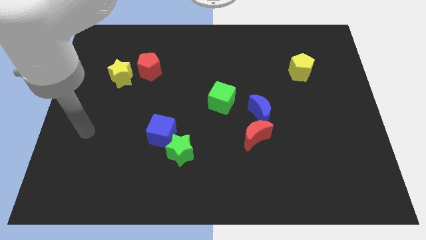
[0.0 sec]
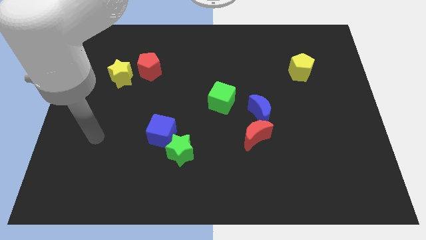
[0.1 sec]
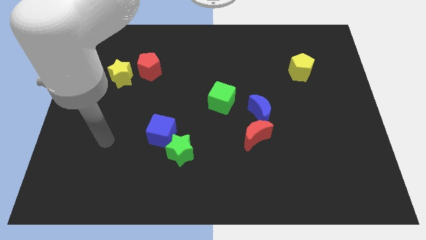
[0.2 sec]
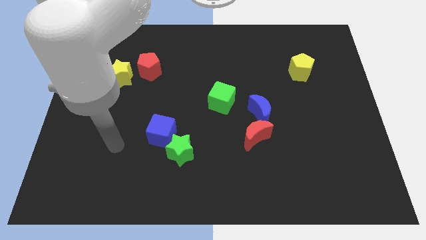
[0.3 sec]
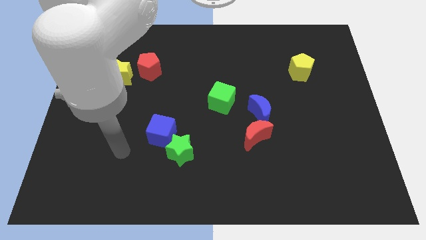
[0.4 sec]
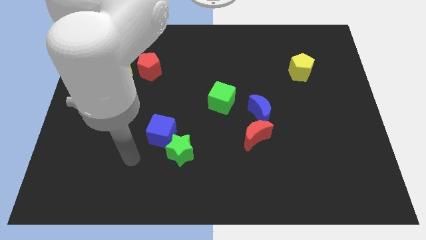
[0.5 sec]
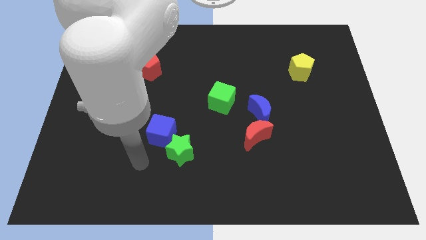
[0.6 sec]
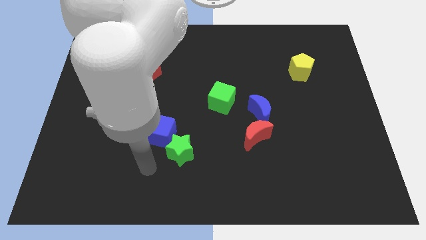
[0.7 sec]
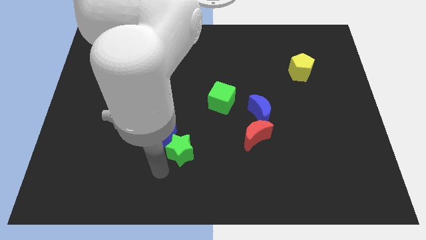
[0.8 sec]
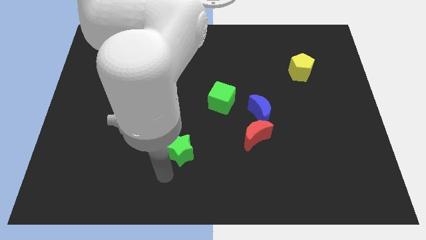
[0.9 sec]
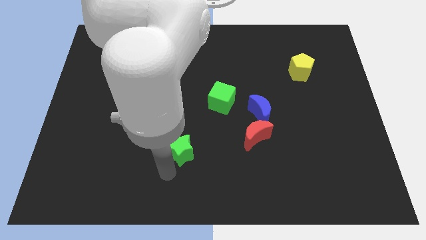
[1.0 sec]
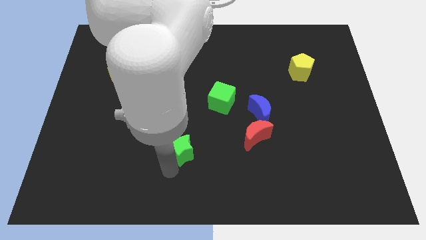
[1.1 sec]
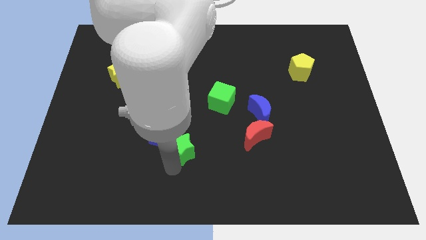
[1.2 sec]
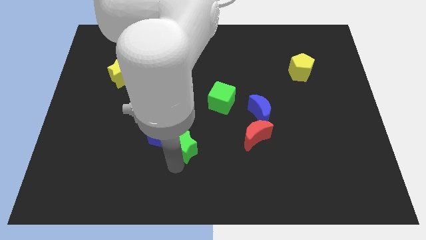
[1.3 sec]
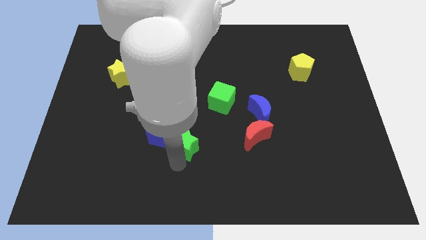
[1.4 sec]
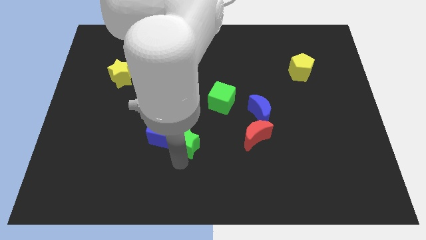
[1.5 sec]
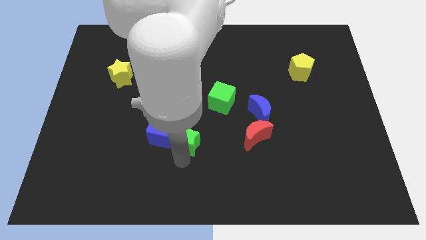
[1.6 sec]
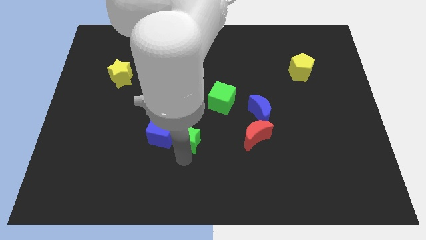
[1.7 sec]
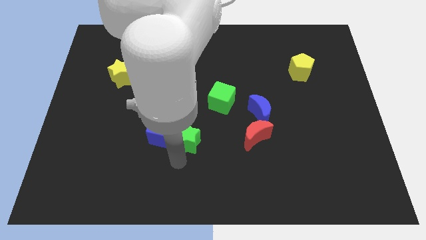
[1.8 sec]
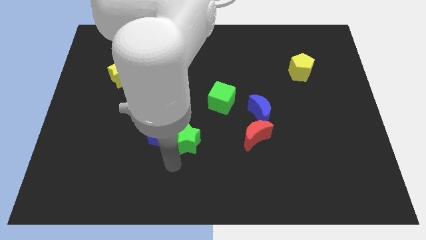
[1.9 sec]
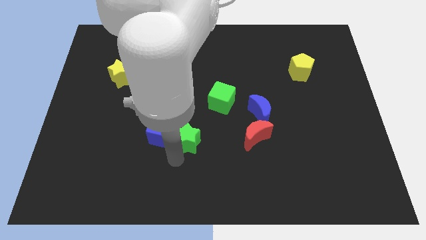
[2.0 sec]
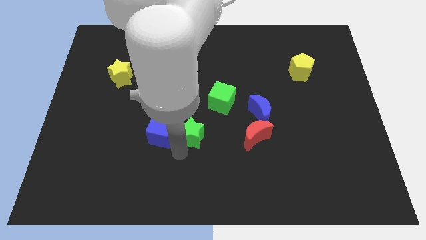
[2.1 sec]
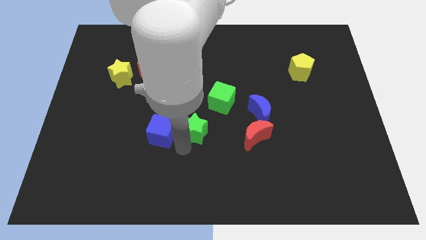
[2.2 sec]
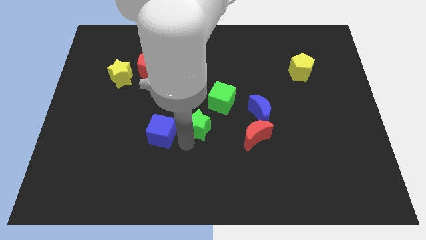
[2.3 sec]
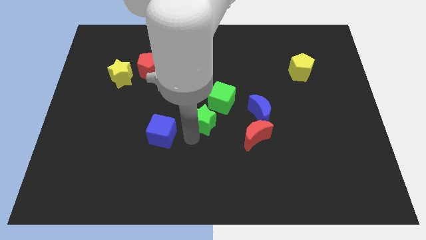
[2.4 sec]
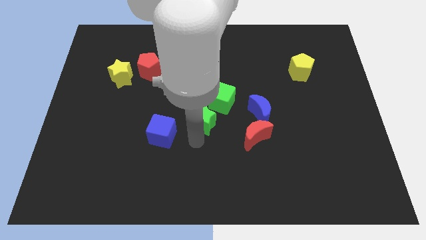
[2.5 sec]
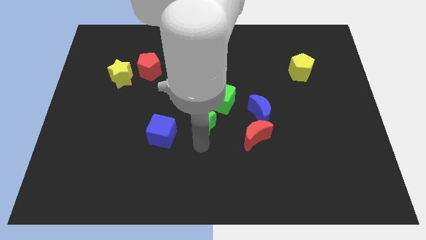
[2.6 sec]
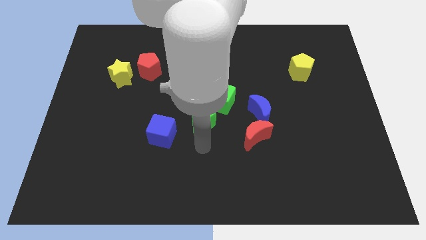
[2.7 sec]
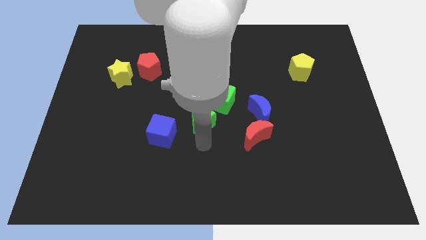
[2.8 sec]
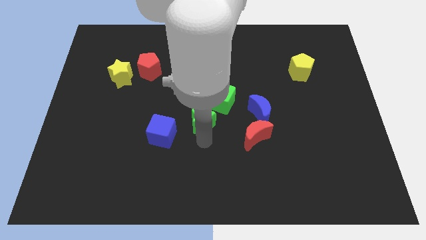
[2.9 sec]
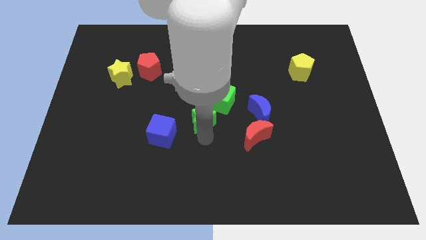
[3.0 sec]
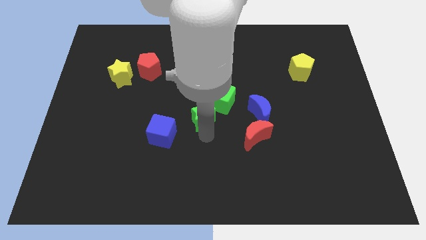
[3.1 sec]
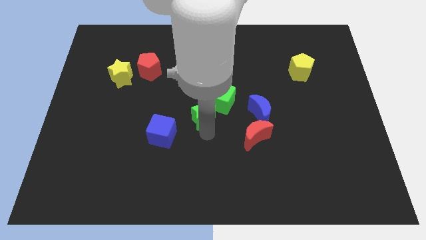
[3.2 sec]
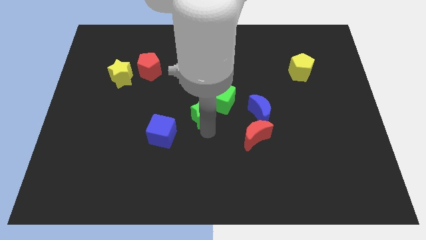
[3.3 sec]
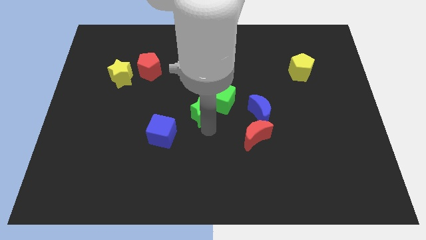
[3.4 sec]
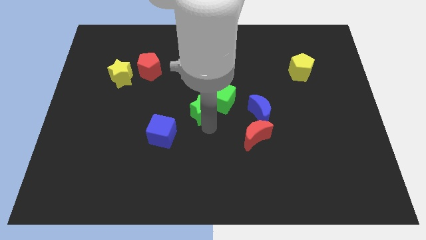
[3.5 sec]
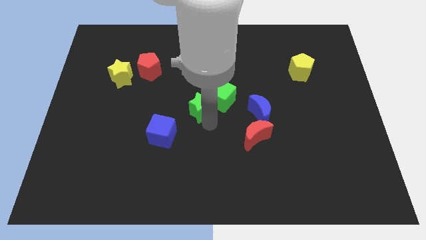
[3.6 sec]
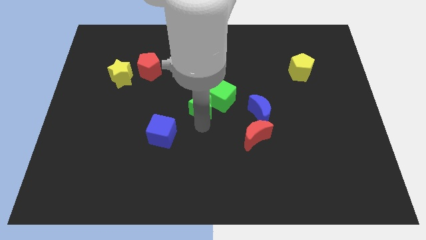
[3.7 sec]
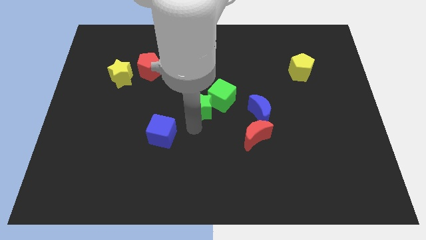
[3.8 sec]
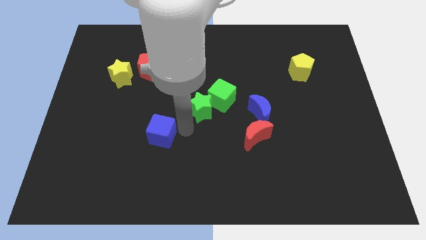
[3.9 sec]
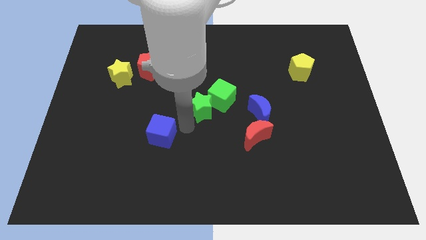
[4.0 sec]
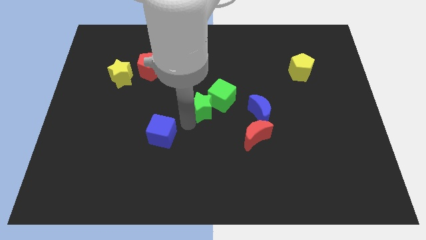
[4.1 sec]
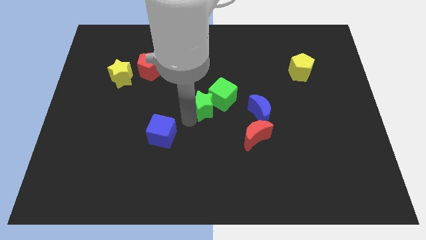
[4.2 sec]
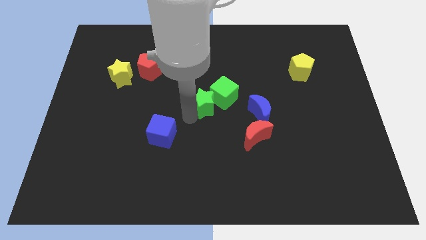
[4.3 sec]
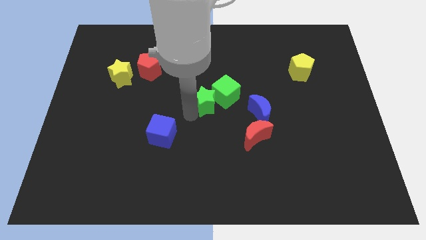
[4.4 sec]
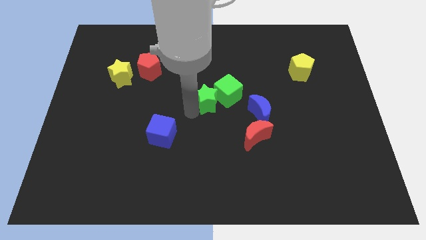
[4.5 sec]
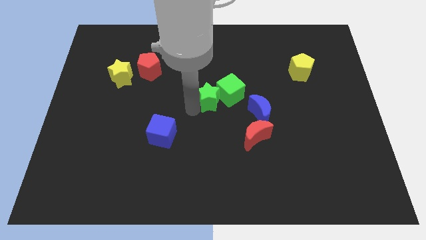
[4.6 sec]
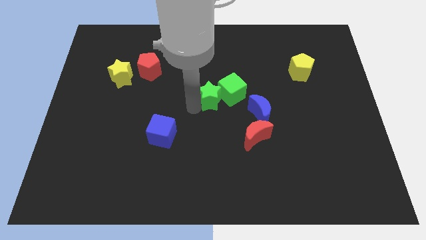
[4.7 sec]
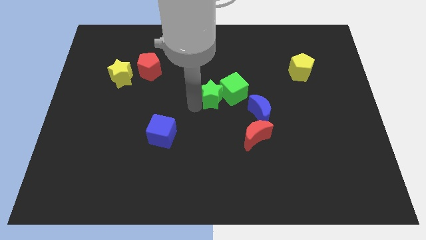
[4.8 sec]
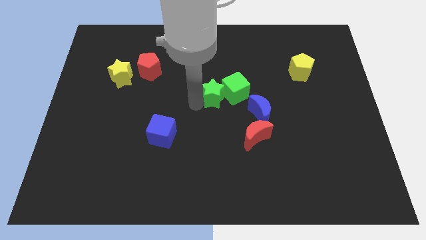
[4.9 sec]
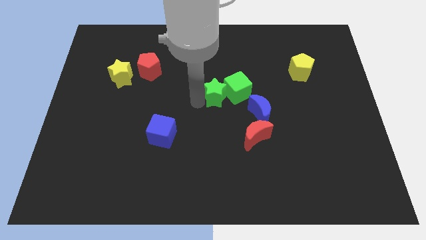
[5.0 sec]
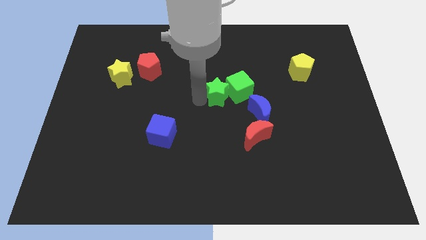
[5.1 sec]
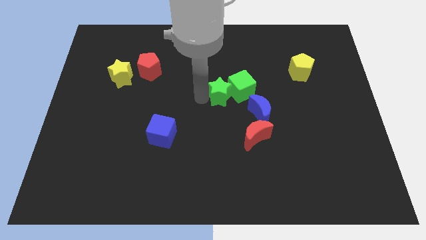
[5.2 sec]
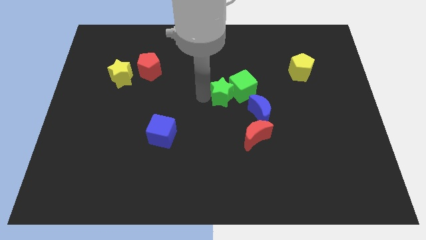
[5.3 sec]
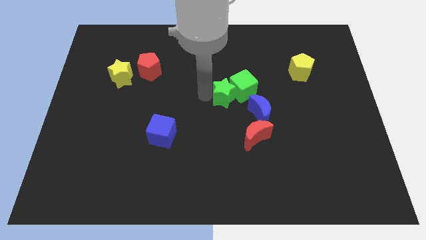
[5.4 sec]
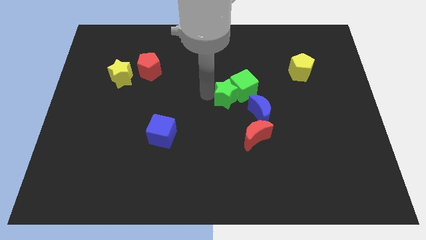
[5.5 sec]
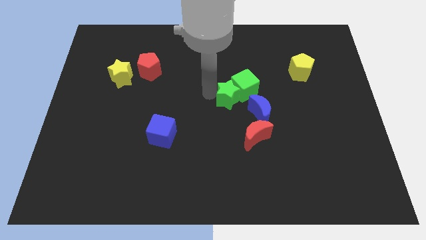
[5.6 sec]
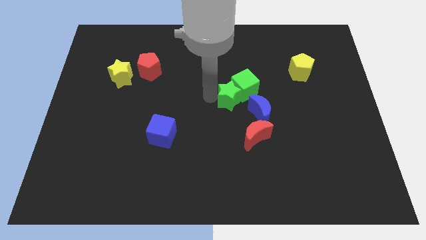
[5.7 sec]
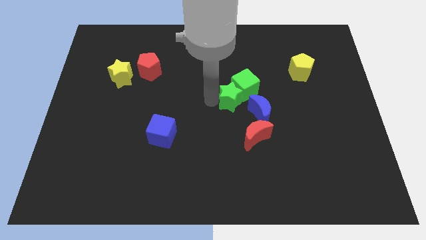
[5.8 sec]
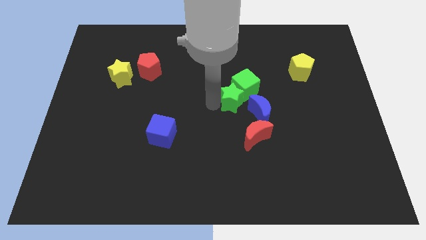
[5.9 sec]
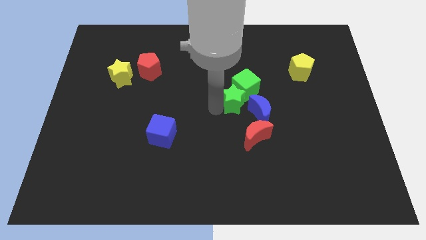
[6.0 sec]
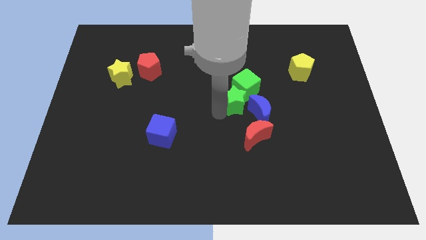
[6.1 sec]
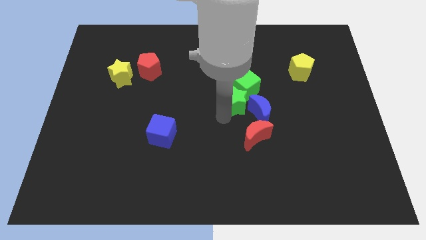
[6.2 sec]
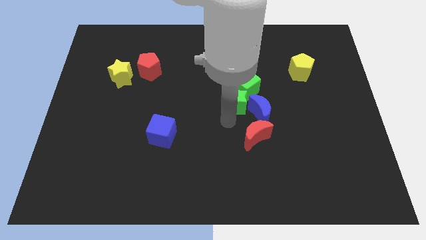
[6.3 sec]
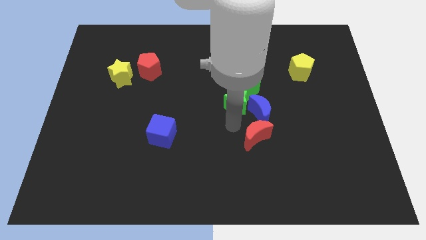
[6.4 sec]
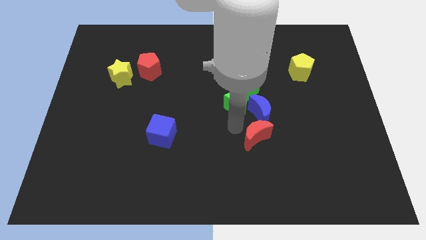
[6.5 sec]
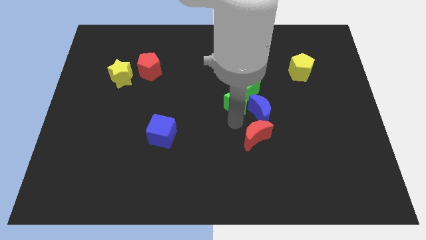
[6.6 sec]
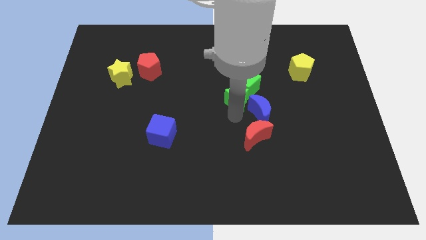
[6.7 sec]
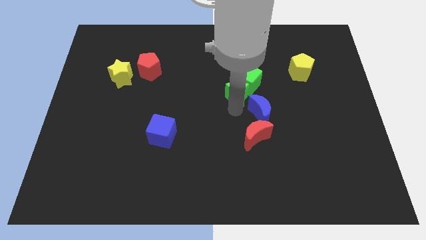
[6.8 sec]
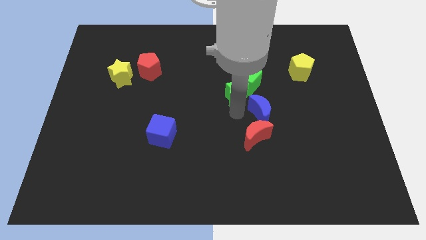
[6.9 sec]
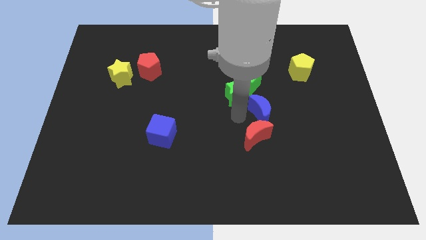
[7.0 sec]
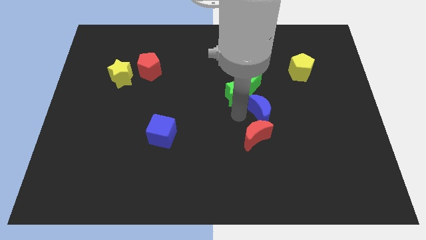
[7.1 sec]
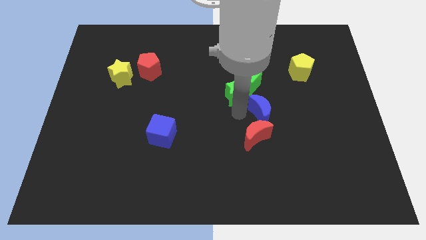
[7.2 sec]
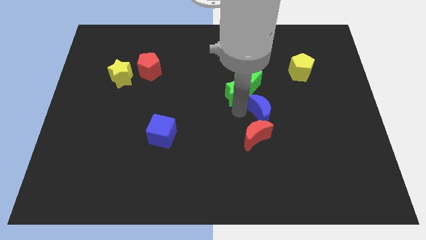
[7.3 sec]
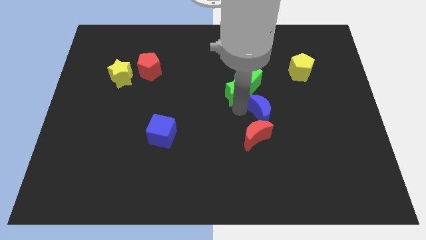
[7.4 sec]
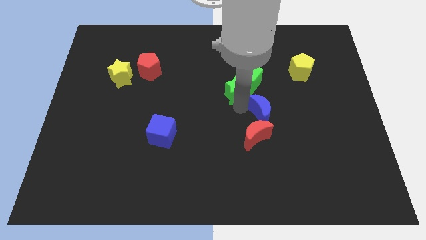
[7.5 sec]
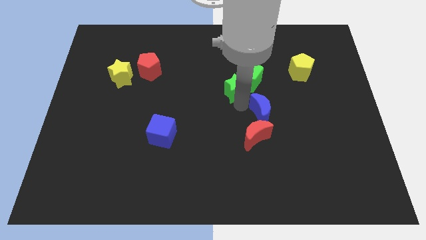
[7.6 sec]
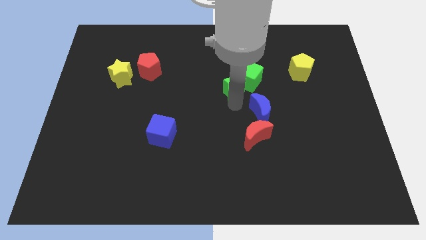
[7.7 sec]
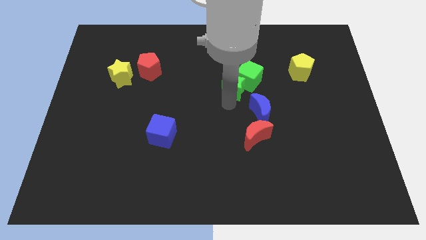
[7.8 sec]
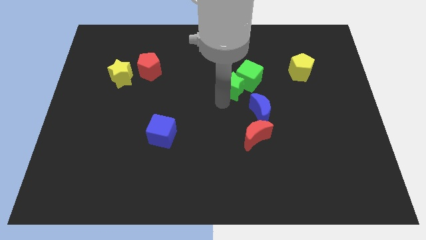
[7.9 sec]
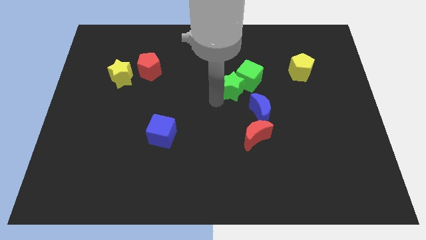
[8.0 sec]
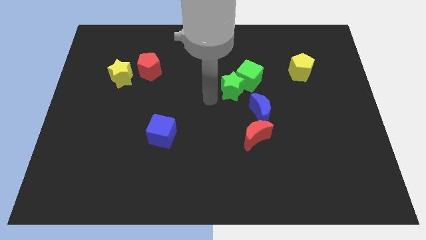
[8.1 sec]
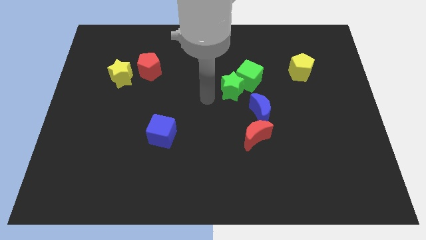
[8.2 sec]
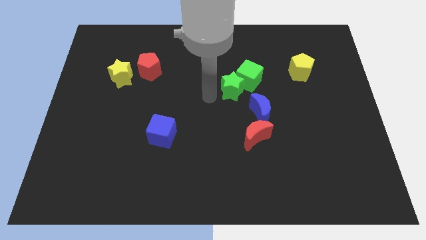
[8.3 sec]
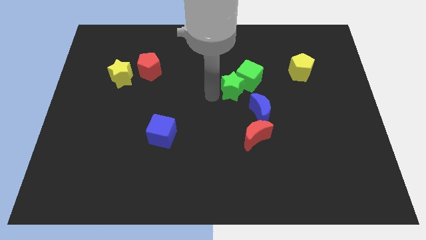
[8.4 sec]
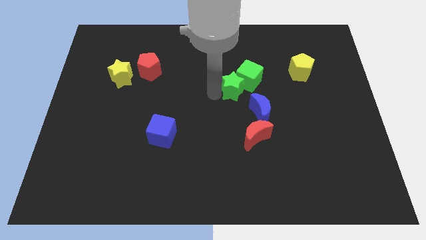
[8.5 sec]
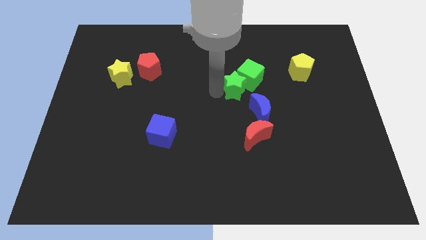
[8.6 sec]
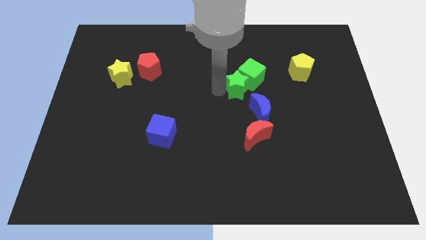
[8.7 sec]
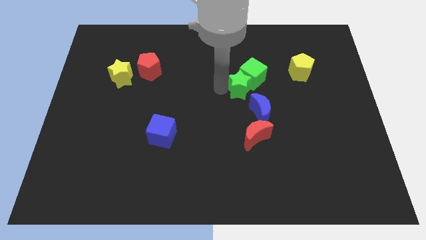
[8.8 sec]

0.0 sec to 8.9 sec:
push the green star to the top side of the blue moon
